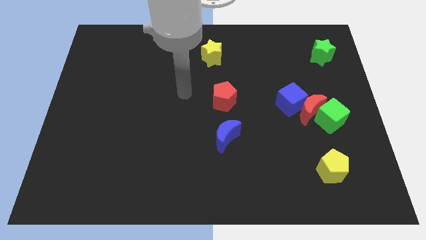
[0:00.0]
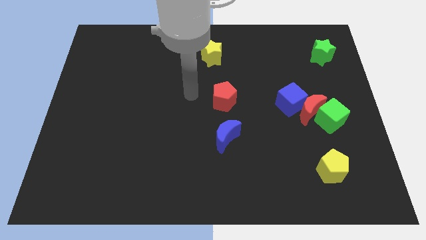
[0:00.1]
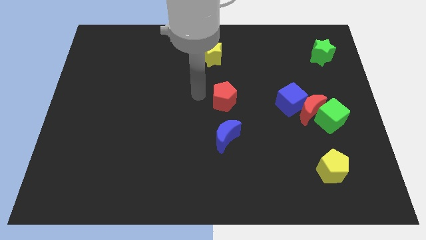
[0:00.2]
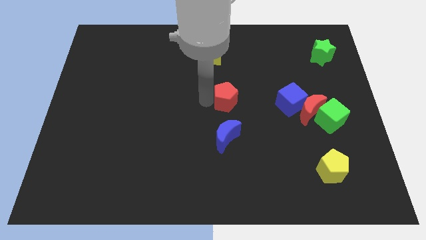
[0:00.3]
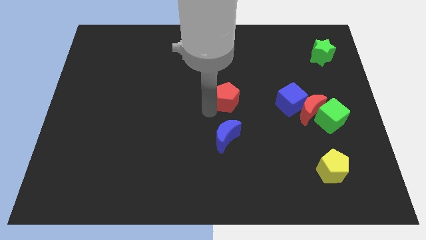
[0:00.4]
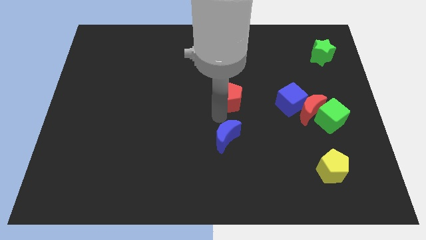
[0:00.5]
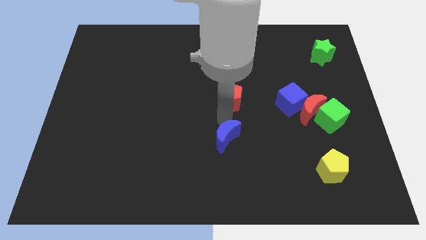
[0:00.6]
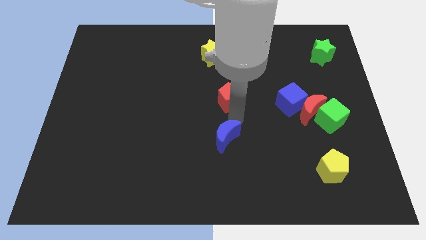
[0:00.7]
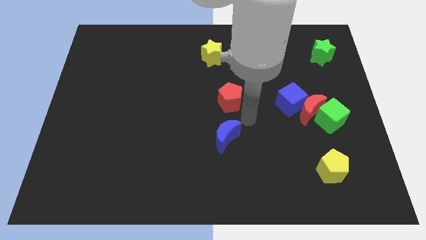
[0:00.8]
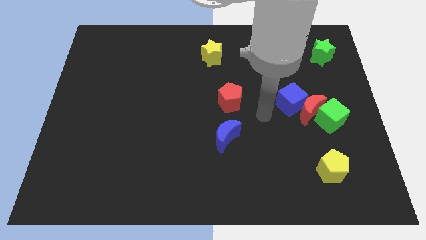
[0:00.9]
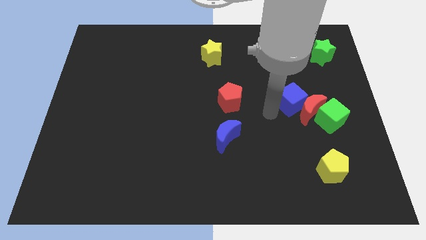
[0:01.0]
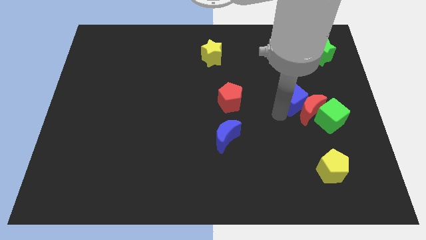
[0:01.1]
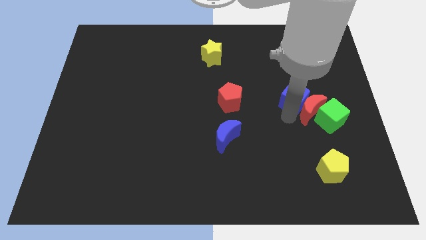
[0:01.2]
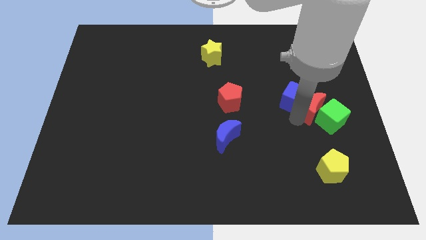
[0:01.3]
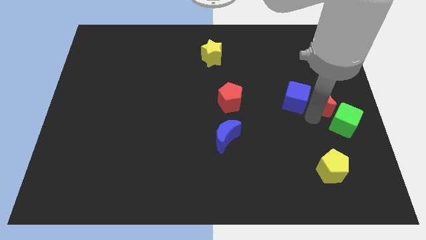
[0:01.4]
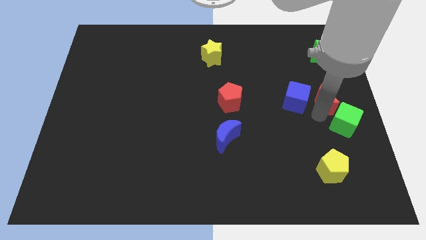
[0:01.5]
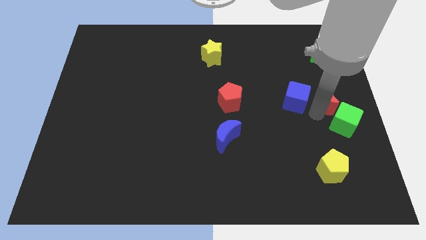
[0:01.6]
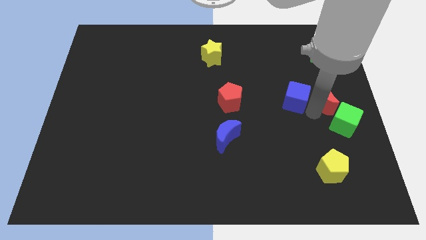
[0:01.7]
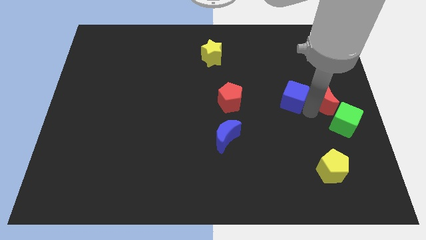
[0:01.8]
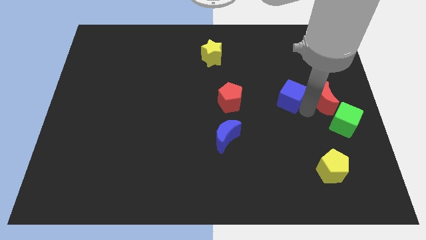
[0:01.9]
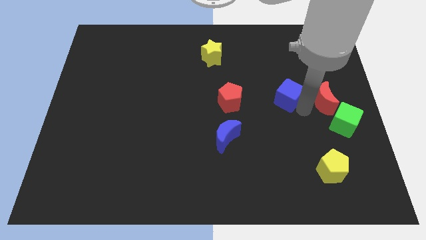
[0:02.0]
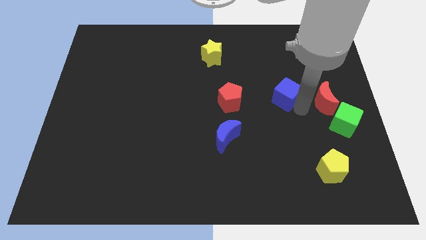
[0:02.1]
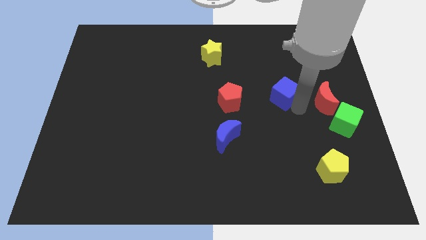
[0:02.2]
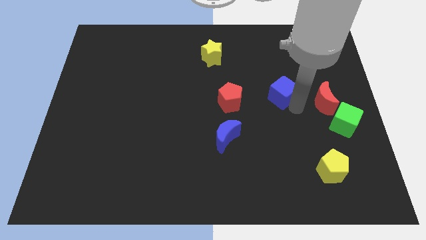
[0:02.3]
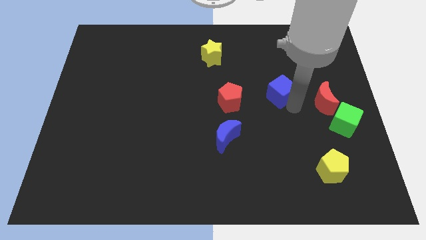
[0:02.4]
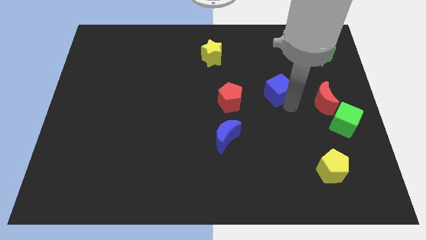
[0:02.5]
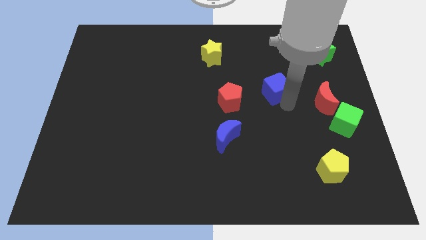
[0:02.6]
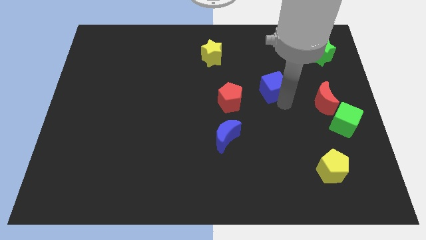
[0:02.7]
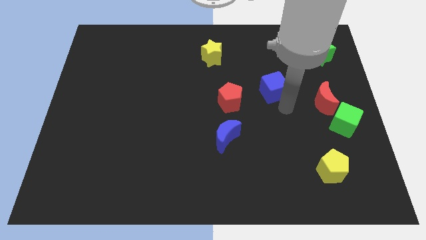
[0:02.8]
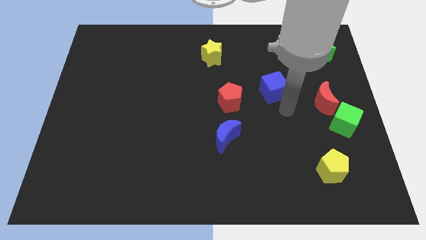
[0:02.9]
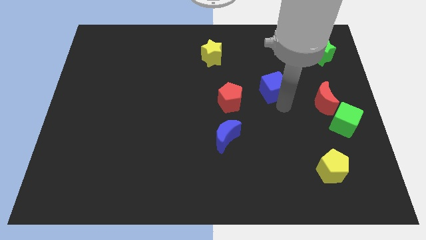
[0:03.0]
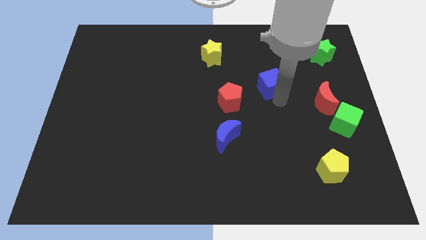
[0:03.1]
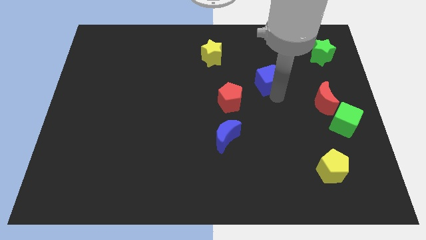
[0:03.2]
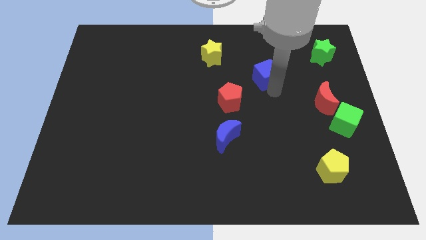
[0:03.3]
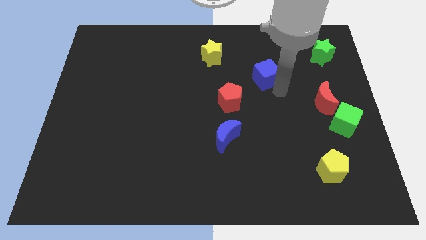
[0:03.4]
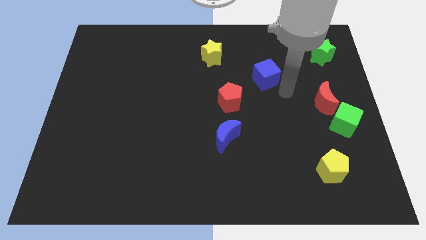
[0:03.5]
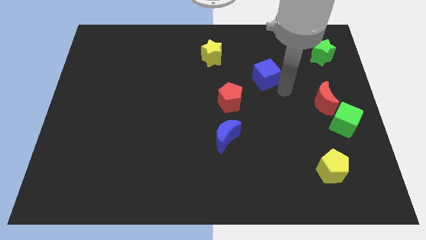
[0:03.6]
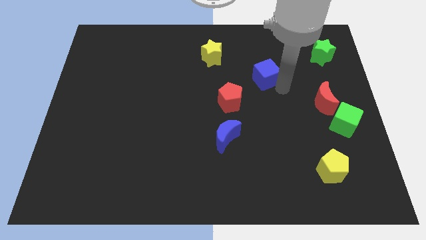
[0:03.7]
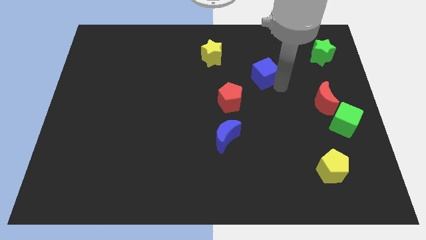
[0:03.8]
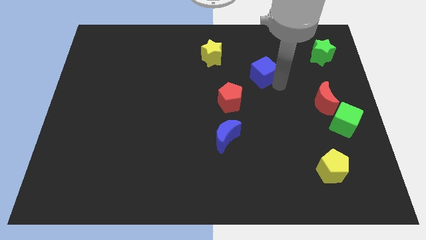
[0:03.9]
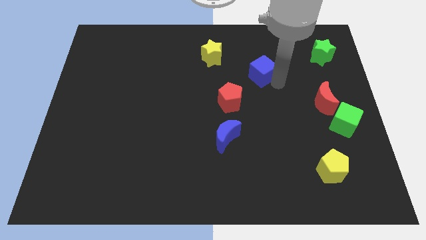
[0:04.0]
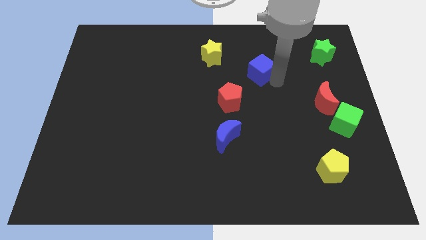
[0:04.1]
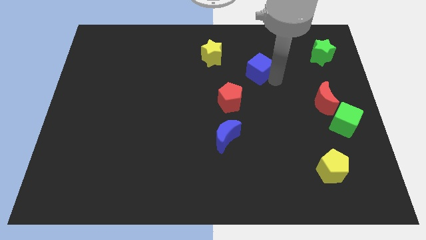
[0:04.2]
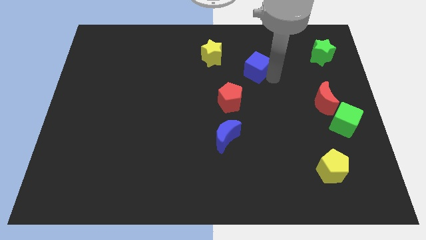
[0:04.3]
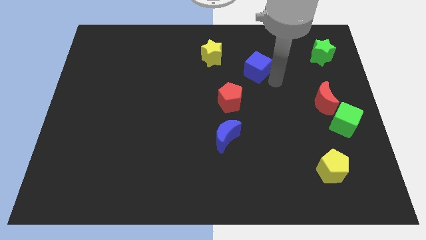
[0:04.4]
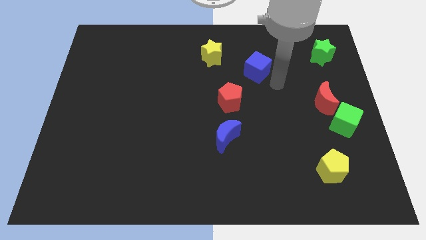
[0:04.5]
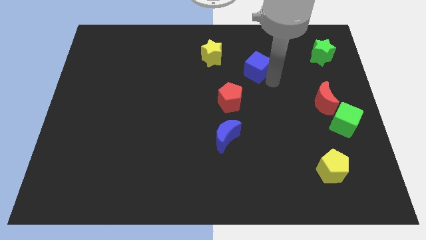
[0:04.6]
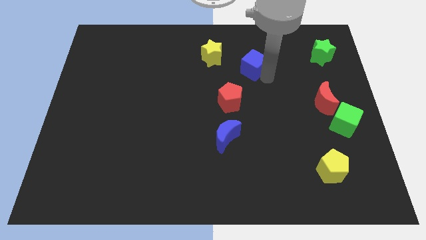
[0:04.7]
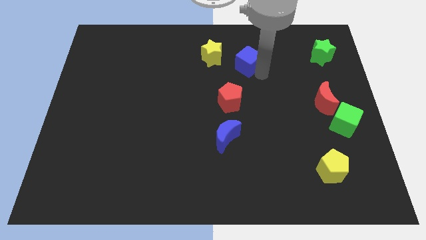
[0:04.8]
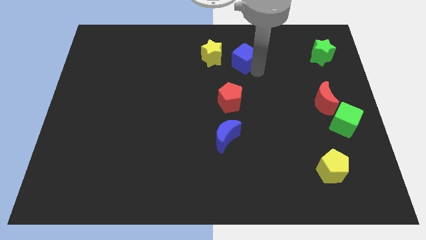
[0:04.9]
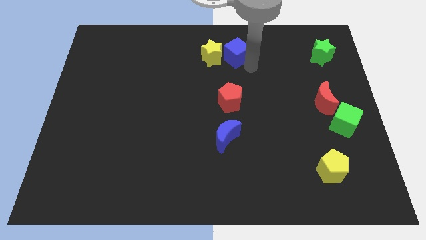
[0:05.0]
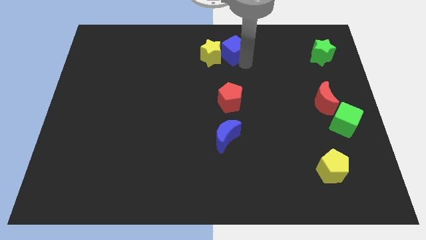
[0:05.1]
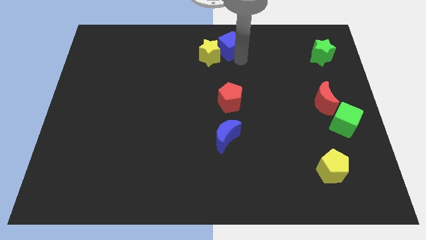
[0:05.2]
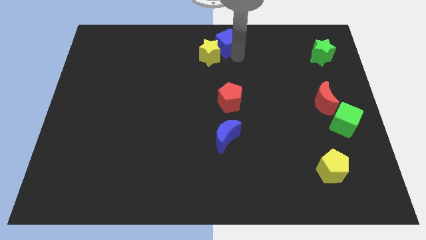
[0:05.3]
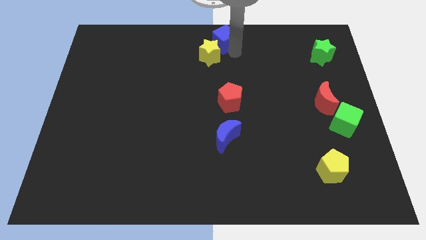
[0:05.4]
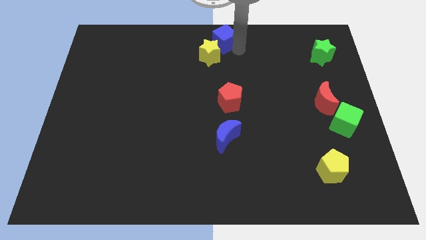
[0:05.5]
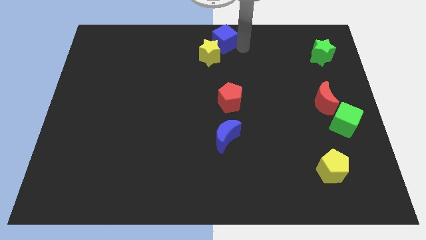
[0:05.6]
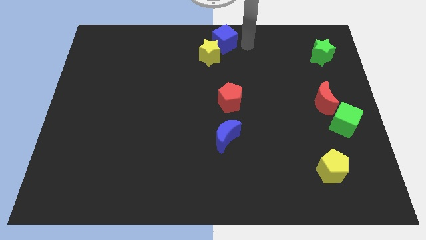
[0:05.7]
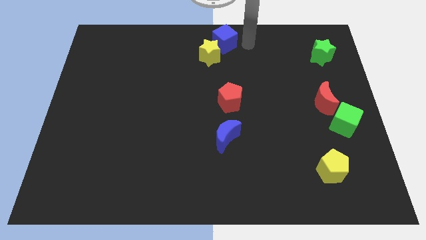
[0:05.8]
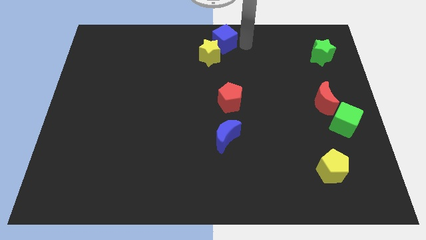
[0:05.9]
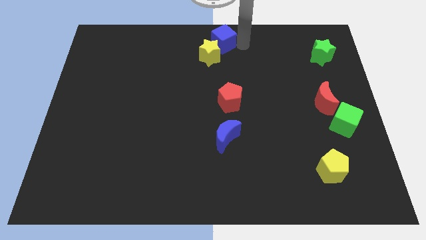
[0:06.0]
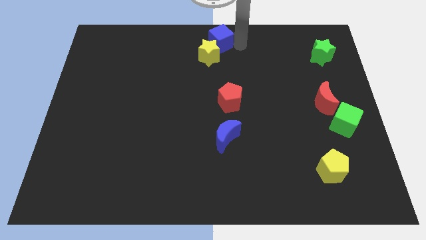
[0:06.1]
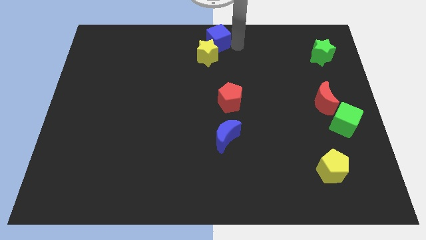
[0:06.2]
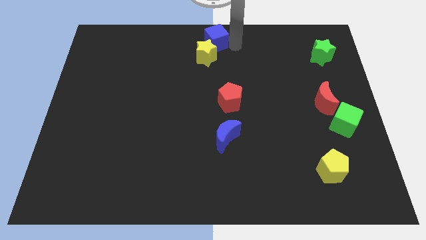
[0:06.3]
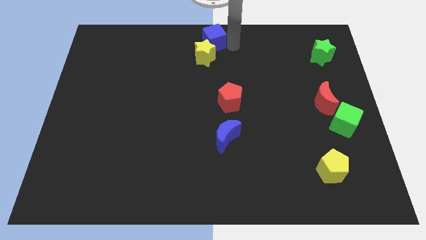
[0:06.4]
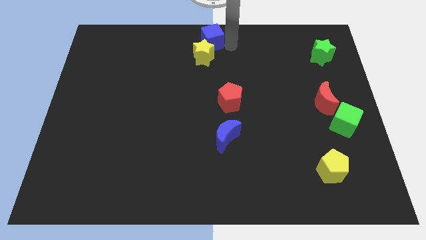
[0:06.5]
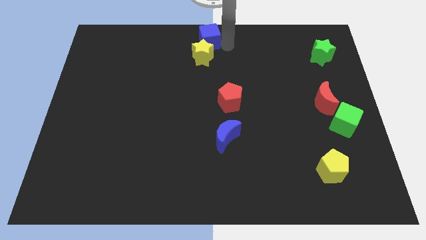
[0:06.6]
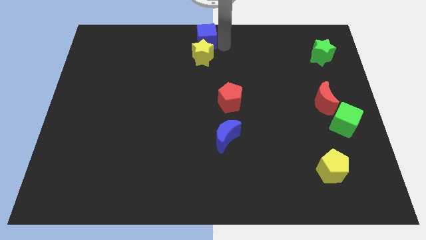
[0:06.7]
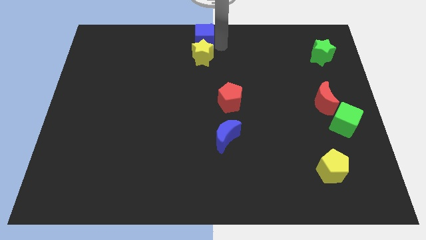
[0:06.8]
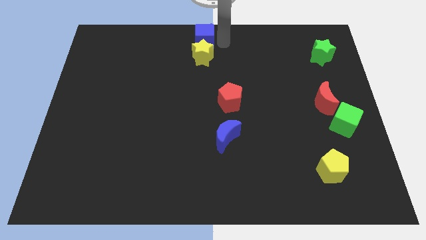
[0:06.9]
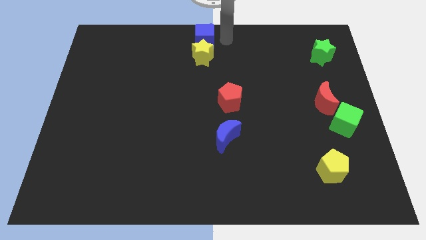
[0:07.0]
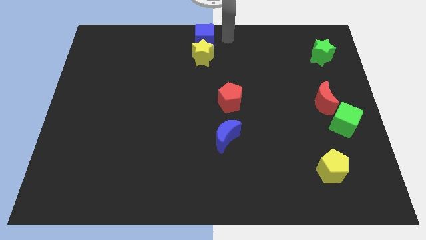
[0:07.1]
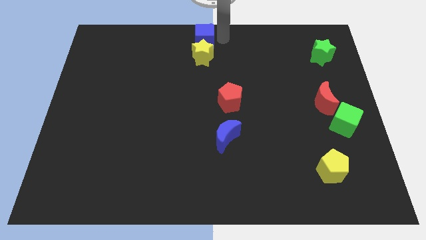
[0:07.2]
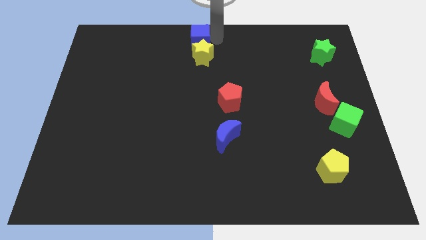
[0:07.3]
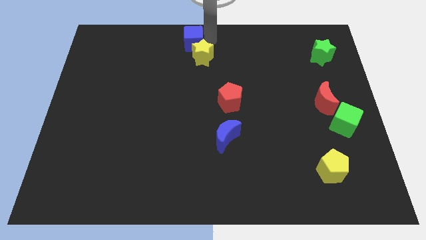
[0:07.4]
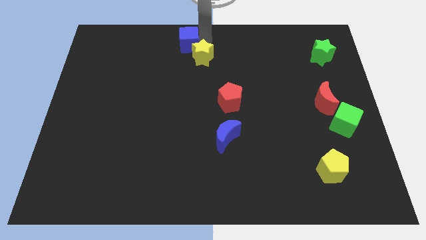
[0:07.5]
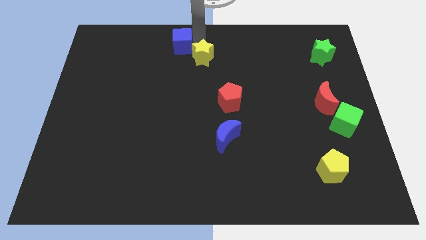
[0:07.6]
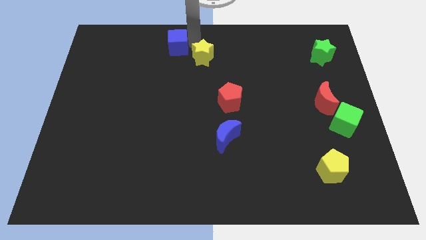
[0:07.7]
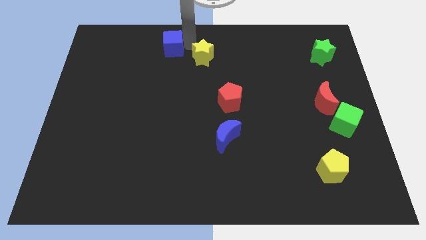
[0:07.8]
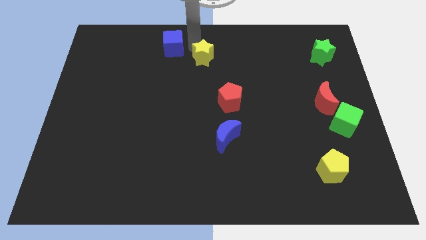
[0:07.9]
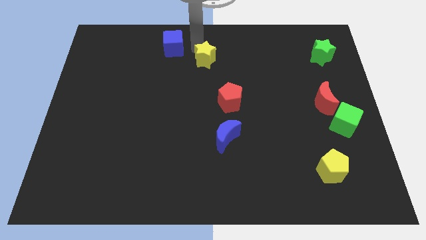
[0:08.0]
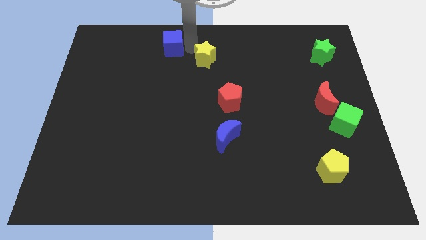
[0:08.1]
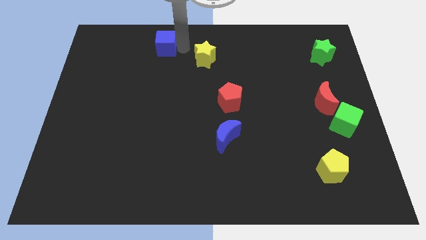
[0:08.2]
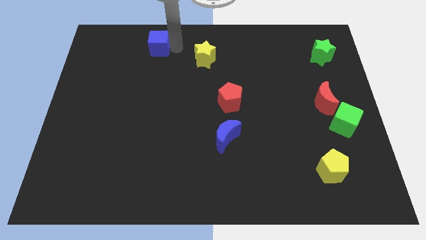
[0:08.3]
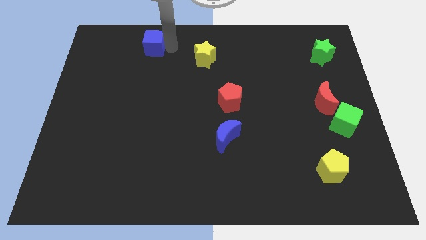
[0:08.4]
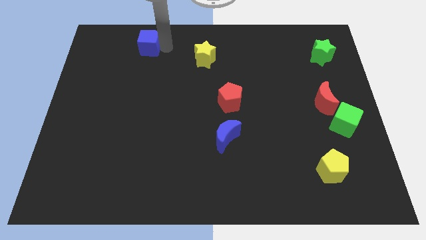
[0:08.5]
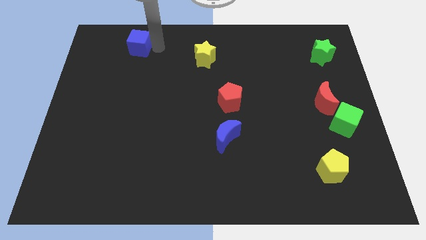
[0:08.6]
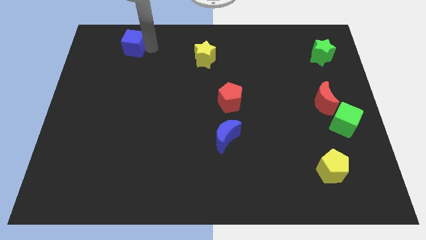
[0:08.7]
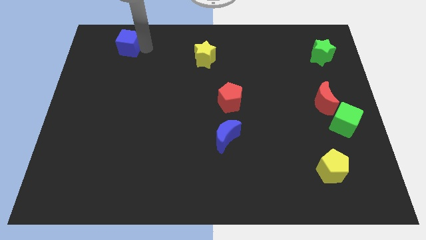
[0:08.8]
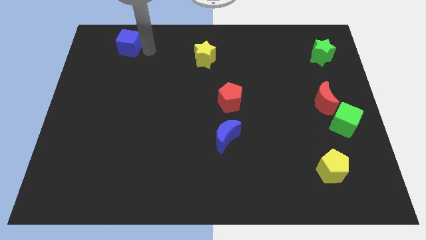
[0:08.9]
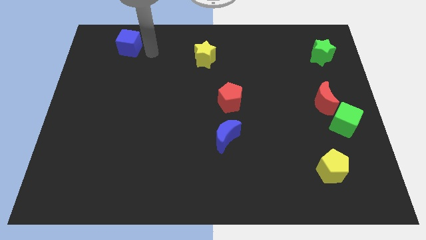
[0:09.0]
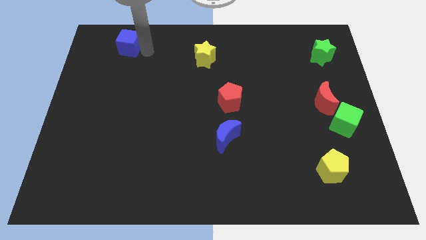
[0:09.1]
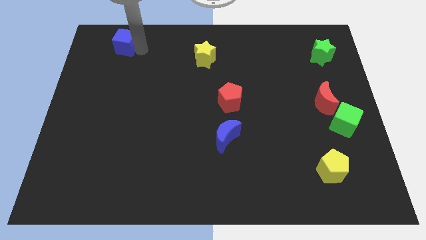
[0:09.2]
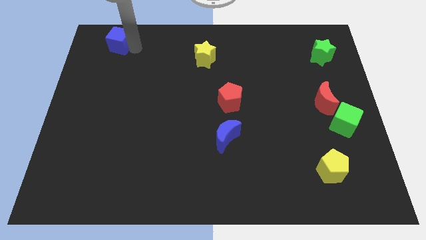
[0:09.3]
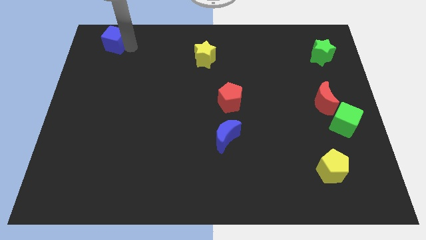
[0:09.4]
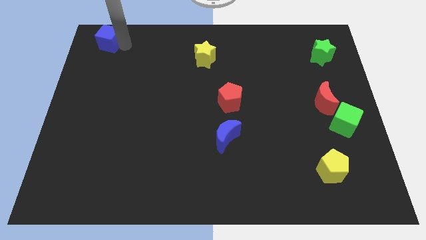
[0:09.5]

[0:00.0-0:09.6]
push the blue cube to the upper left corner
